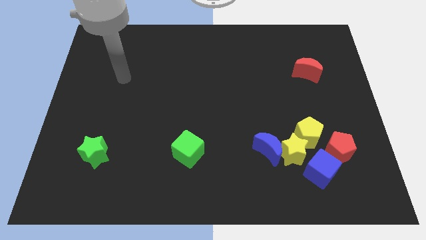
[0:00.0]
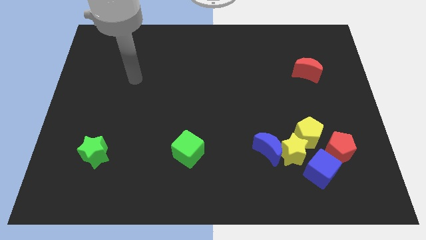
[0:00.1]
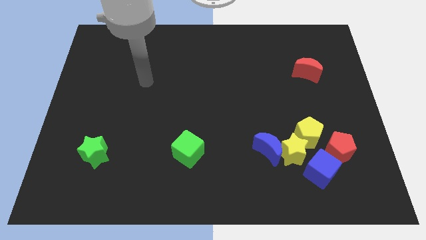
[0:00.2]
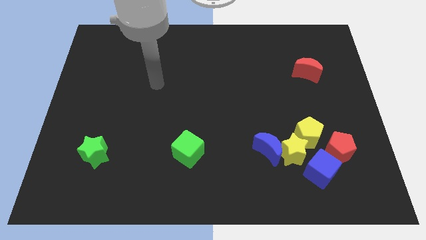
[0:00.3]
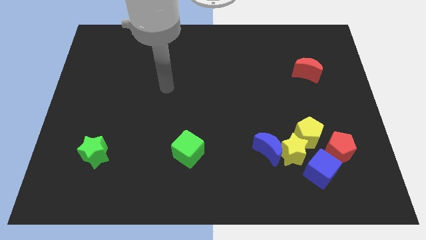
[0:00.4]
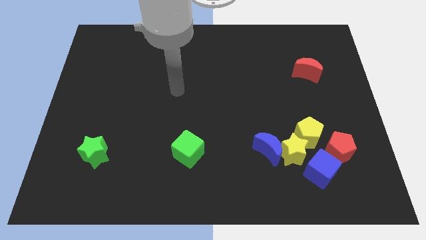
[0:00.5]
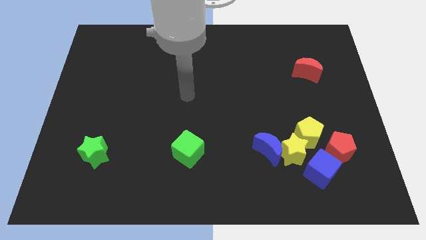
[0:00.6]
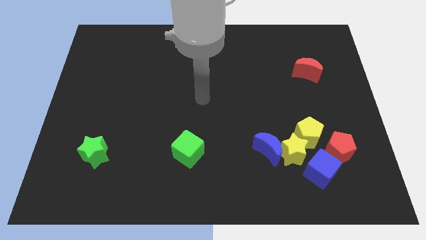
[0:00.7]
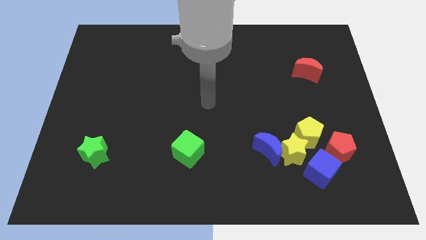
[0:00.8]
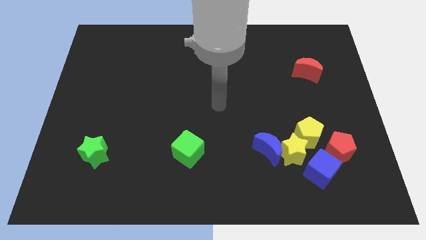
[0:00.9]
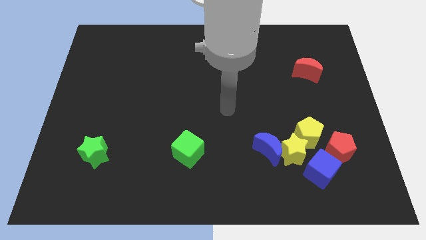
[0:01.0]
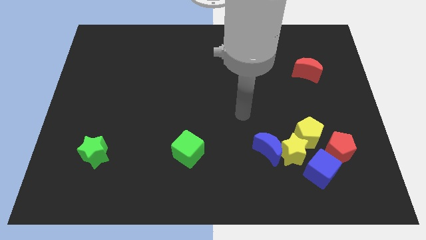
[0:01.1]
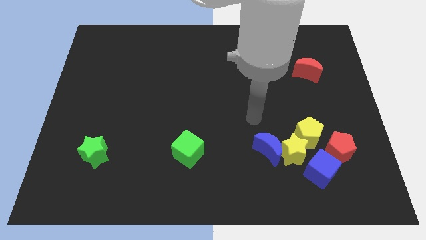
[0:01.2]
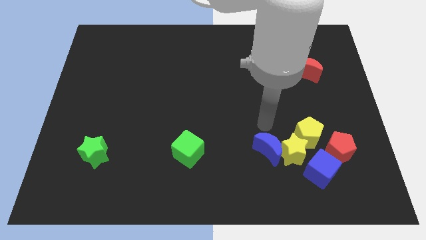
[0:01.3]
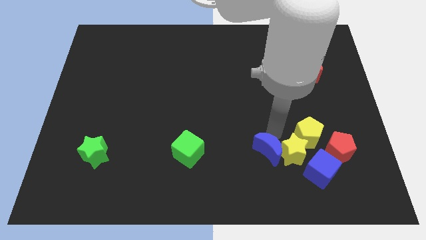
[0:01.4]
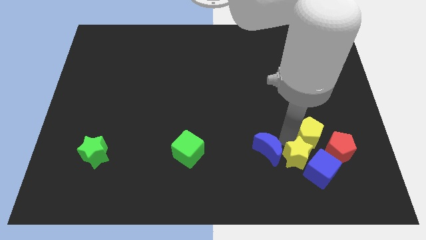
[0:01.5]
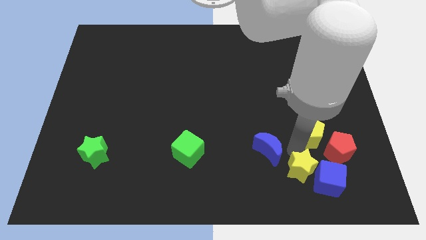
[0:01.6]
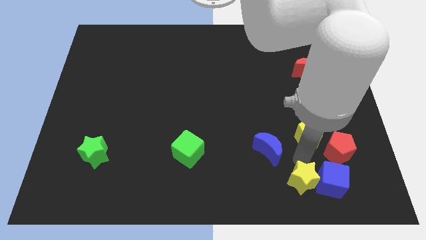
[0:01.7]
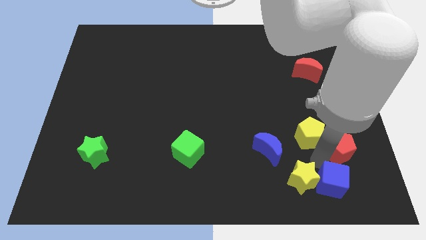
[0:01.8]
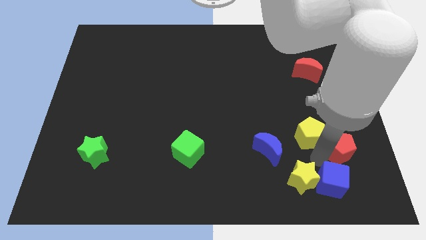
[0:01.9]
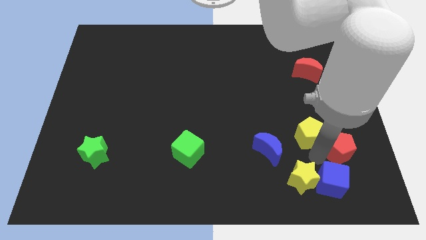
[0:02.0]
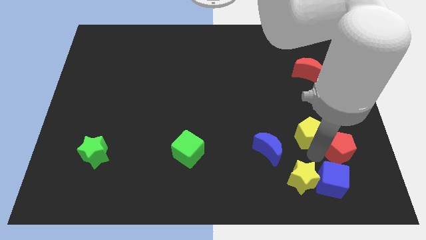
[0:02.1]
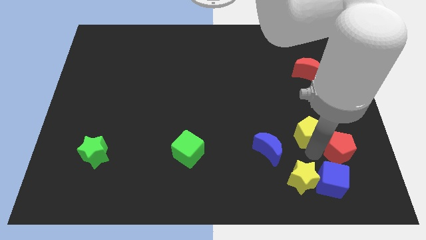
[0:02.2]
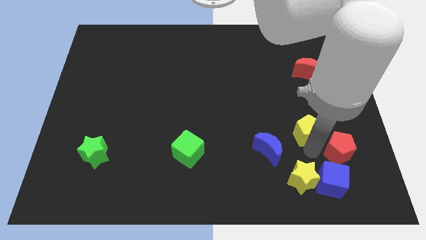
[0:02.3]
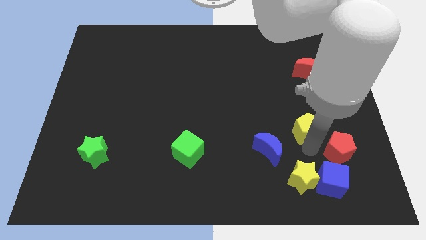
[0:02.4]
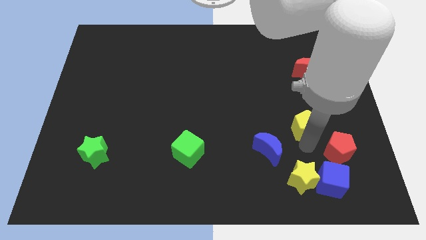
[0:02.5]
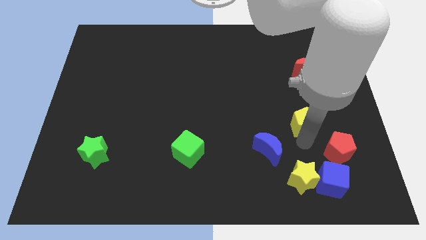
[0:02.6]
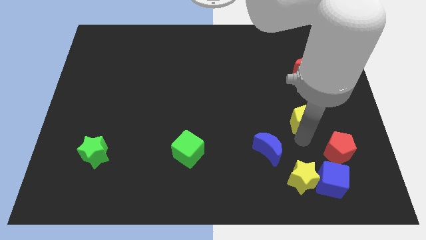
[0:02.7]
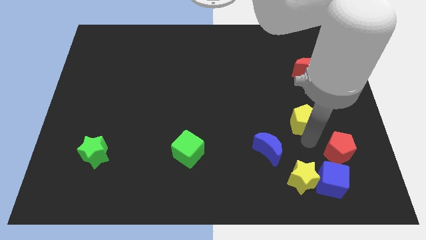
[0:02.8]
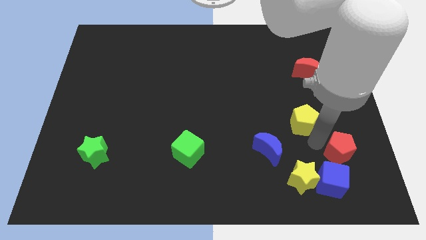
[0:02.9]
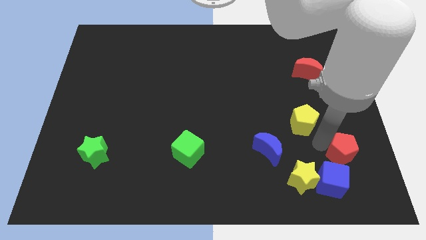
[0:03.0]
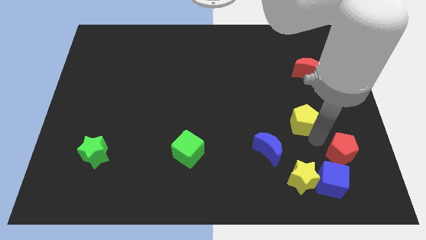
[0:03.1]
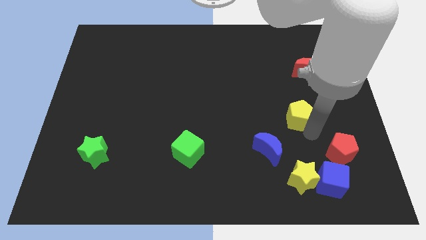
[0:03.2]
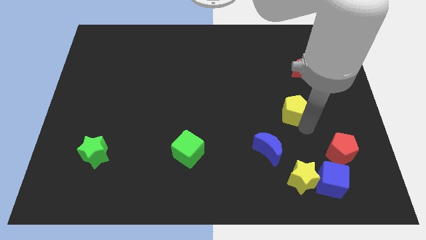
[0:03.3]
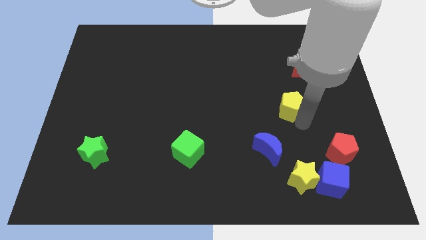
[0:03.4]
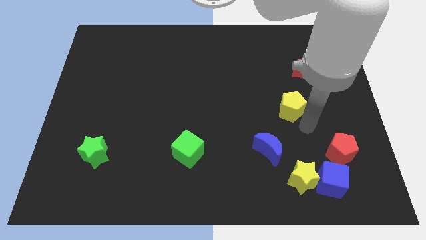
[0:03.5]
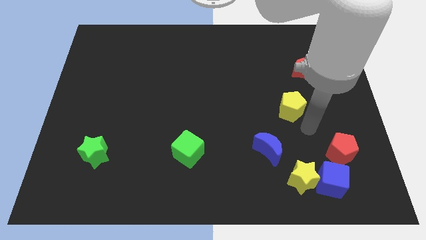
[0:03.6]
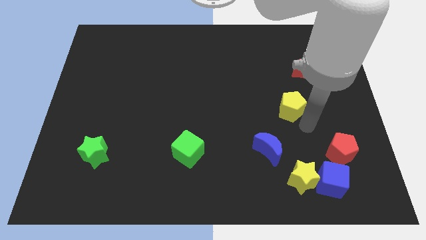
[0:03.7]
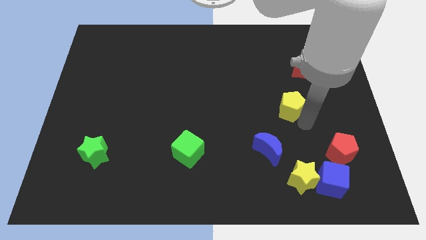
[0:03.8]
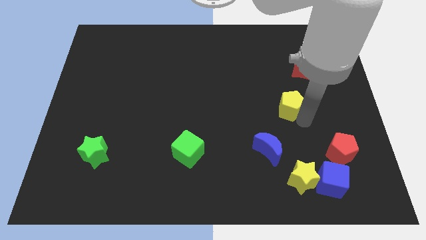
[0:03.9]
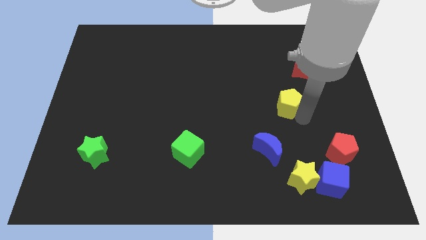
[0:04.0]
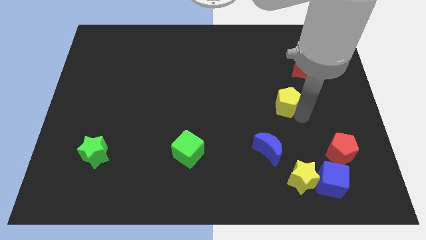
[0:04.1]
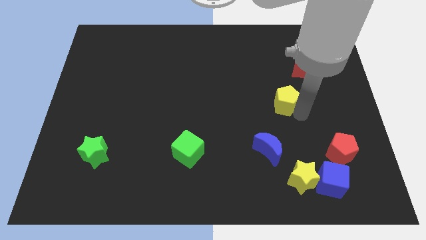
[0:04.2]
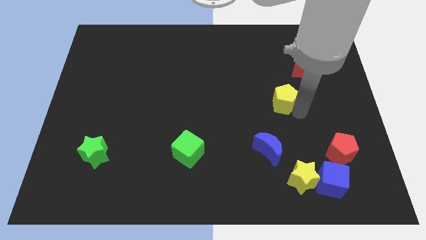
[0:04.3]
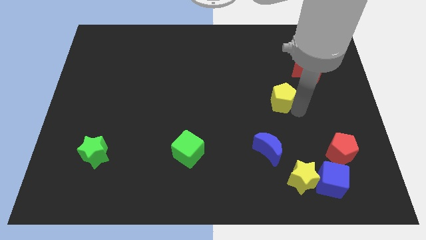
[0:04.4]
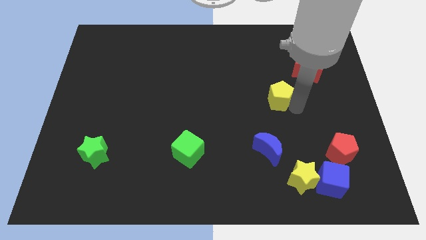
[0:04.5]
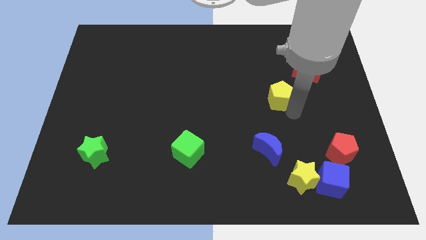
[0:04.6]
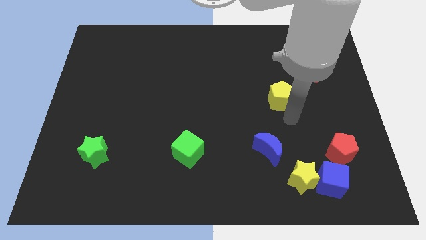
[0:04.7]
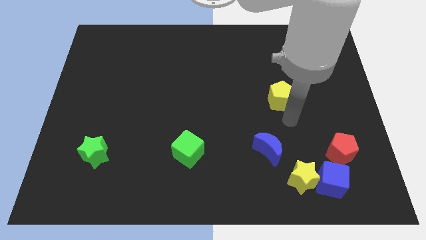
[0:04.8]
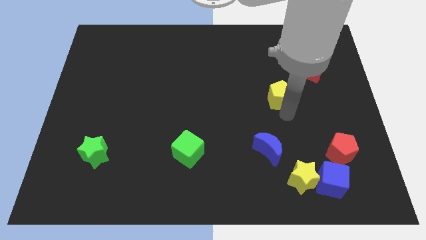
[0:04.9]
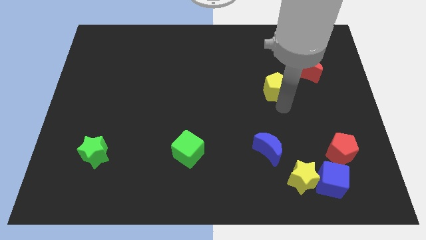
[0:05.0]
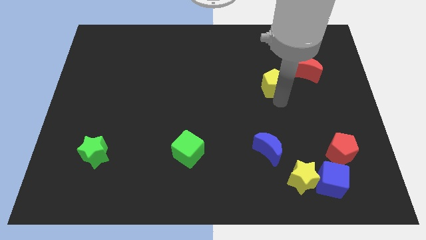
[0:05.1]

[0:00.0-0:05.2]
move the yellow pentagon just left of the red moon
